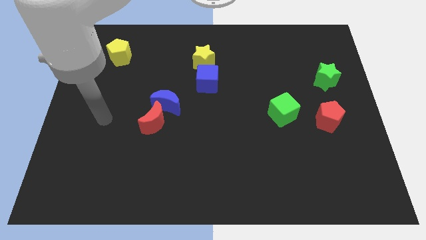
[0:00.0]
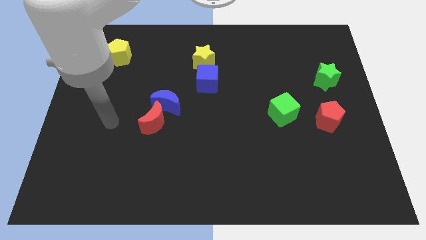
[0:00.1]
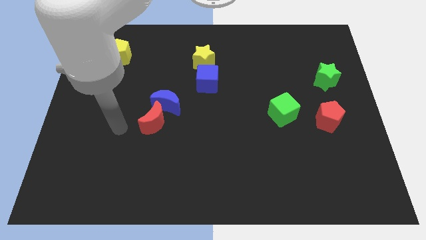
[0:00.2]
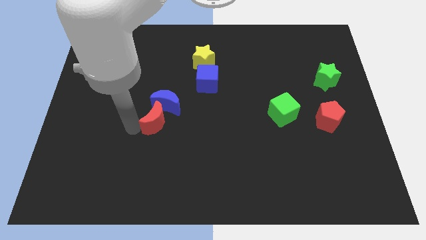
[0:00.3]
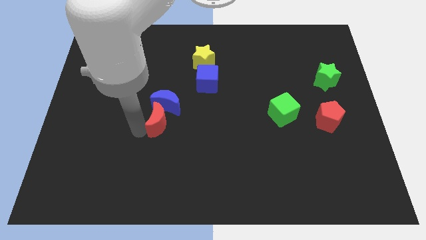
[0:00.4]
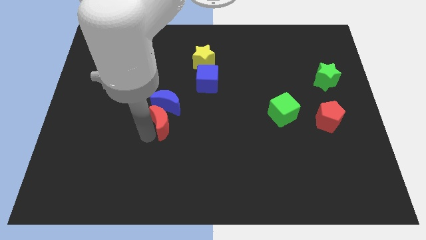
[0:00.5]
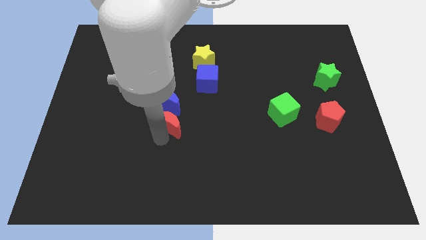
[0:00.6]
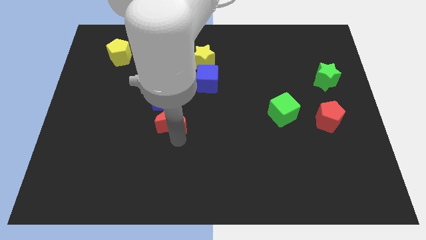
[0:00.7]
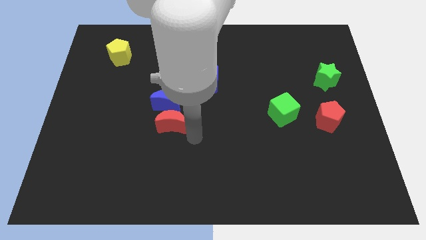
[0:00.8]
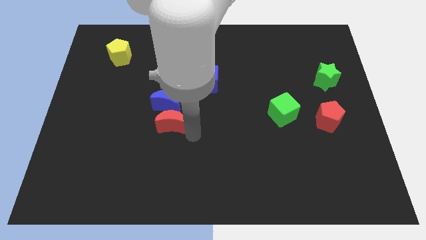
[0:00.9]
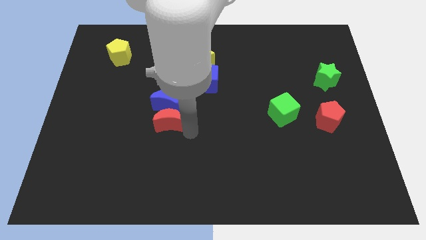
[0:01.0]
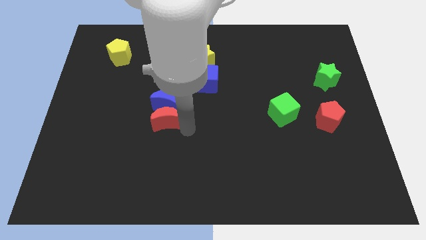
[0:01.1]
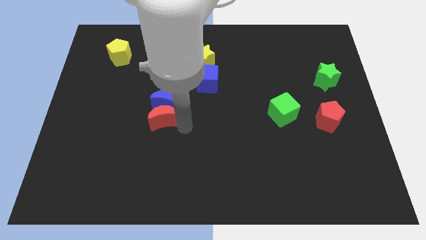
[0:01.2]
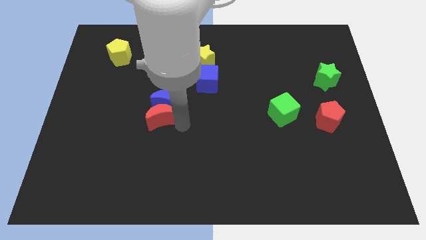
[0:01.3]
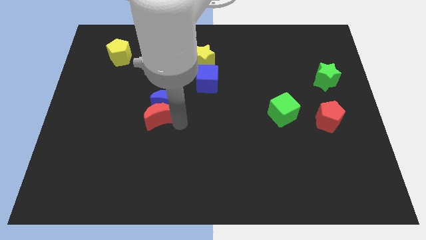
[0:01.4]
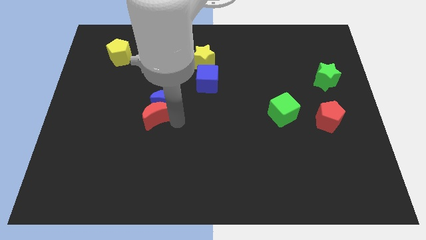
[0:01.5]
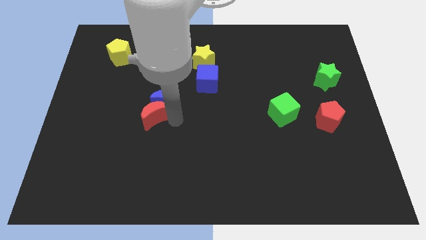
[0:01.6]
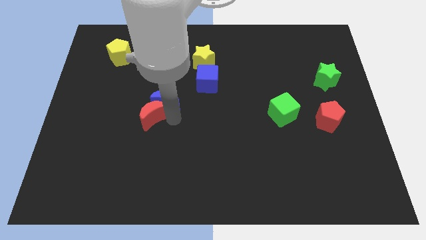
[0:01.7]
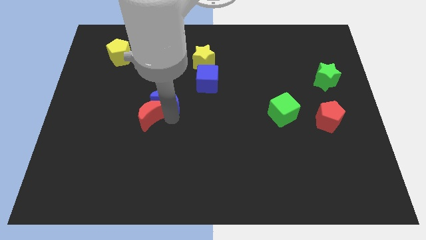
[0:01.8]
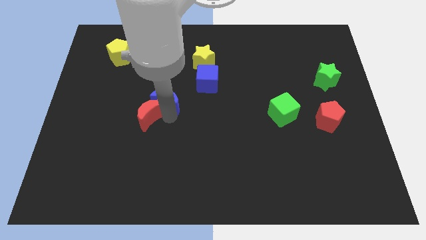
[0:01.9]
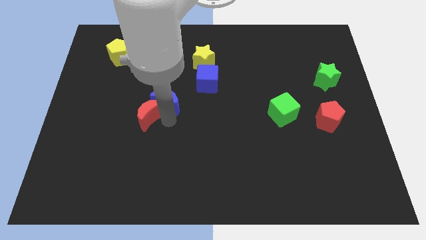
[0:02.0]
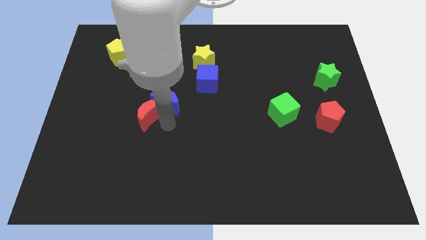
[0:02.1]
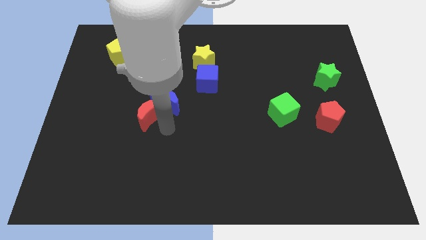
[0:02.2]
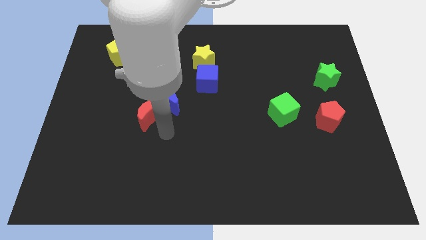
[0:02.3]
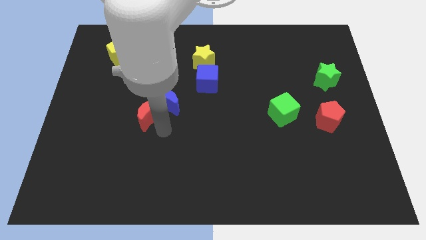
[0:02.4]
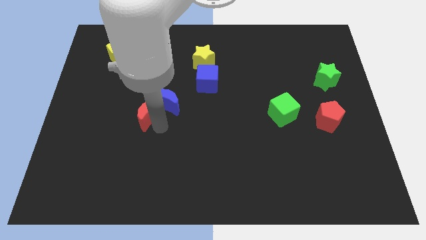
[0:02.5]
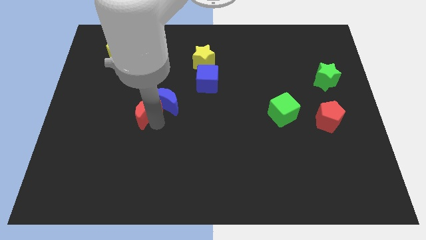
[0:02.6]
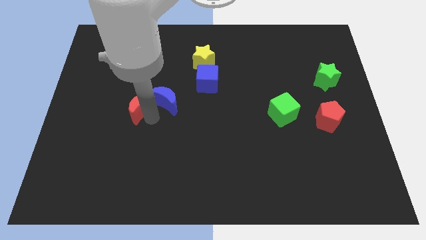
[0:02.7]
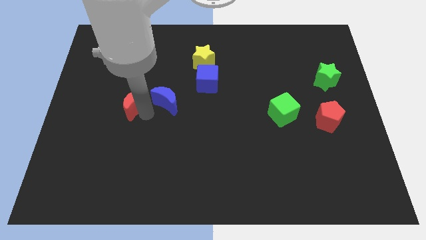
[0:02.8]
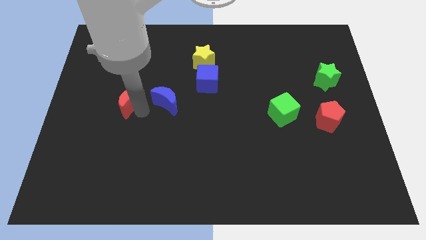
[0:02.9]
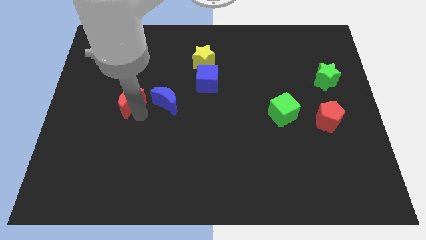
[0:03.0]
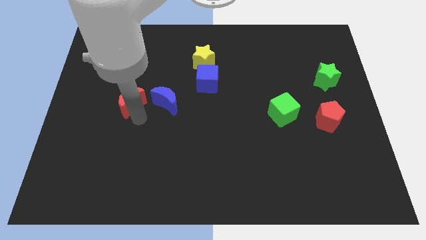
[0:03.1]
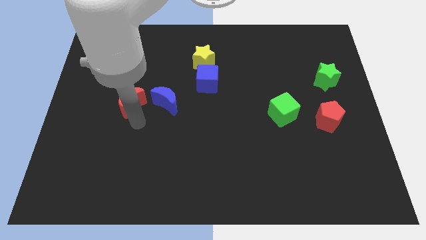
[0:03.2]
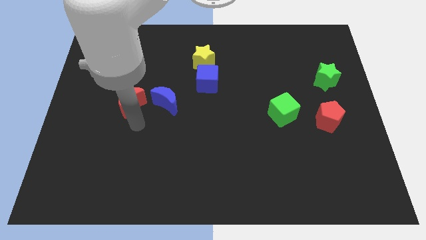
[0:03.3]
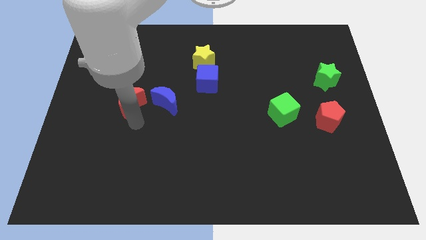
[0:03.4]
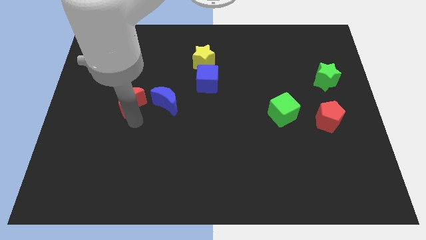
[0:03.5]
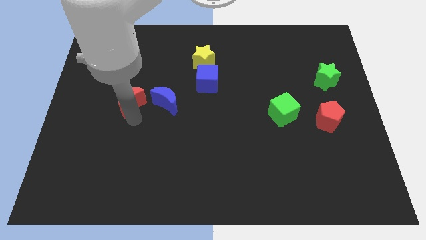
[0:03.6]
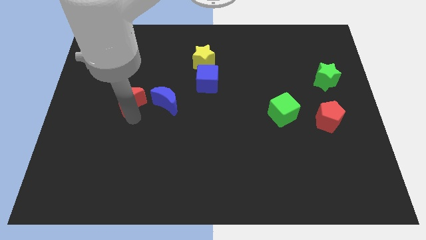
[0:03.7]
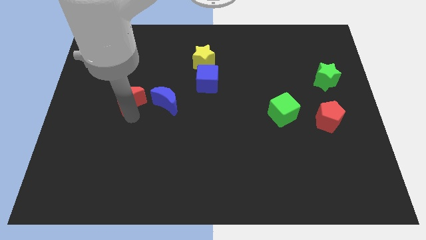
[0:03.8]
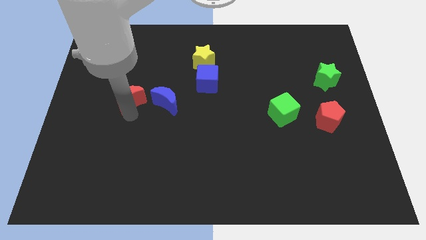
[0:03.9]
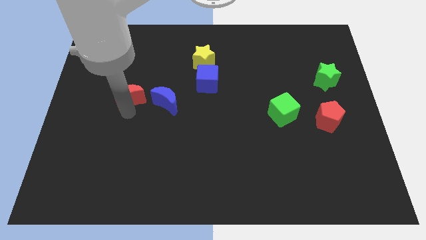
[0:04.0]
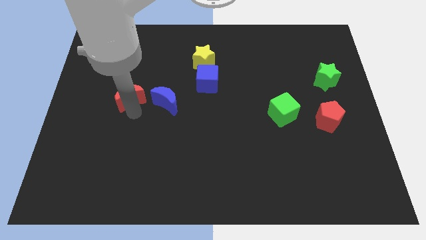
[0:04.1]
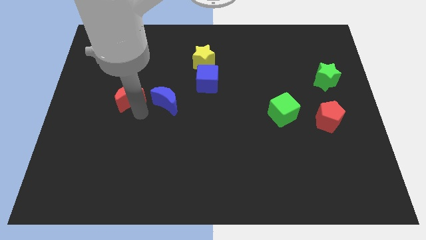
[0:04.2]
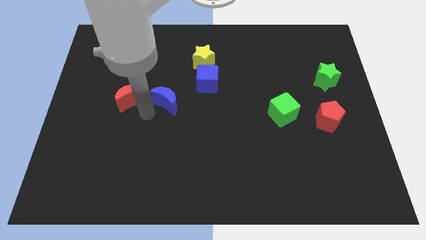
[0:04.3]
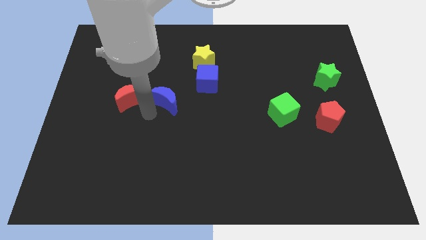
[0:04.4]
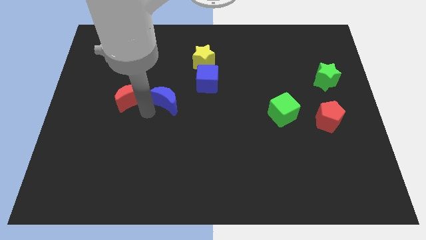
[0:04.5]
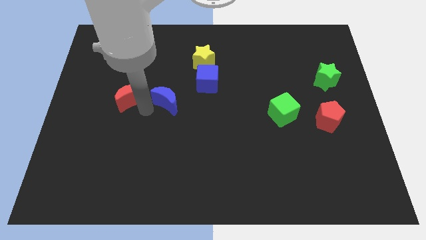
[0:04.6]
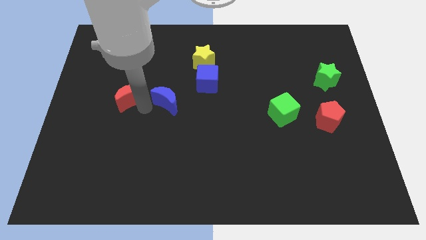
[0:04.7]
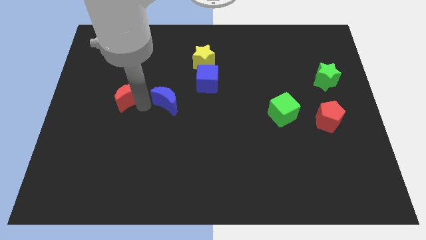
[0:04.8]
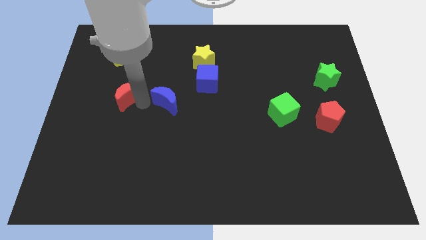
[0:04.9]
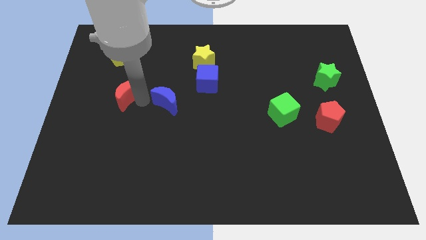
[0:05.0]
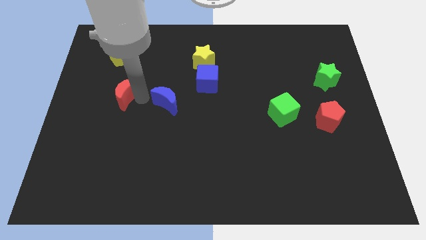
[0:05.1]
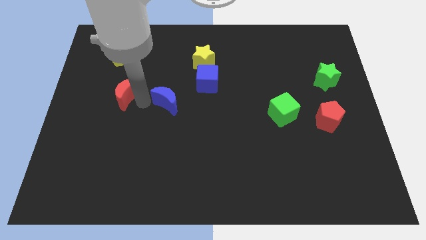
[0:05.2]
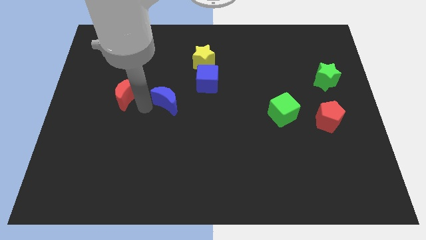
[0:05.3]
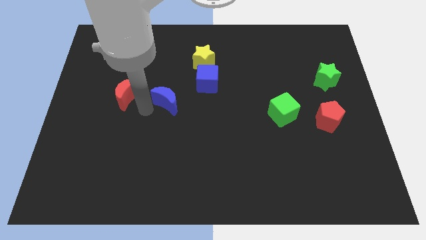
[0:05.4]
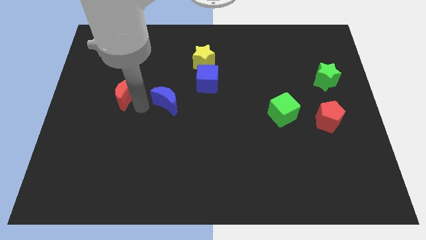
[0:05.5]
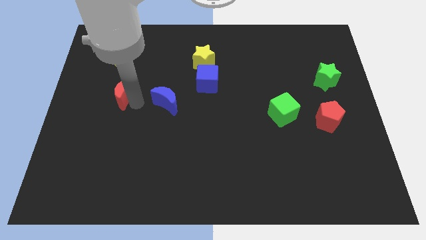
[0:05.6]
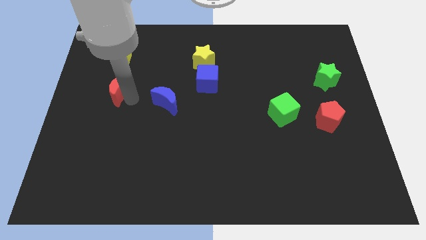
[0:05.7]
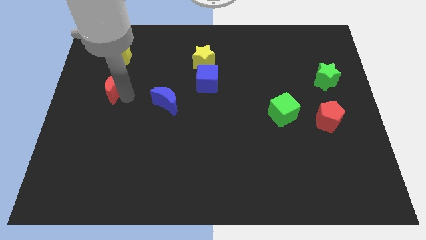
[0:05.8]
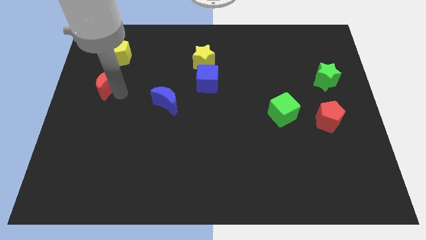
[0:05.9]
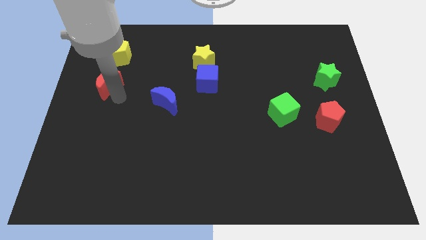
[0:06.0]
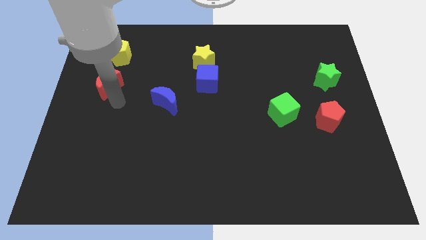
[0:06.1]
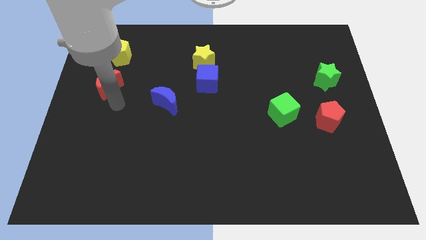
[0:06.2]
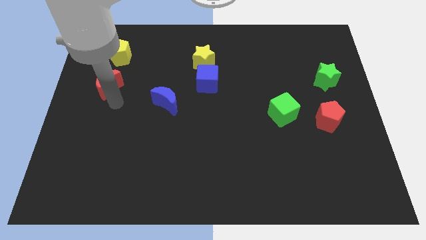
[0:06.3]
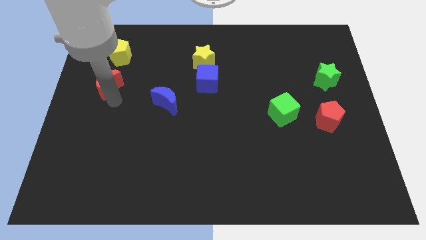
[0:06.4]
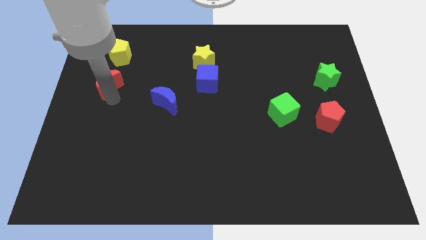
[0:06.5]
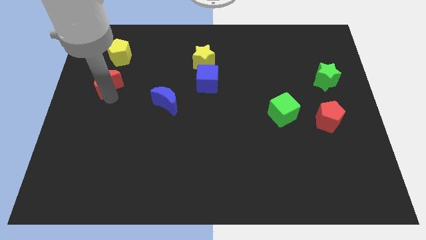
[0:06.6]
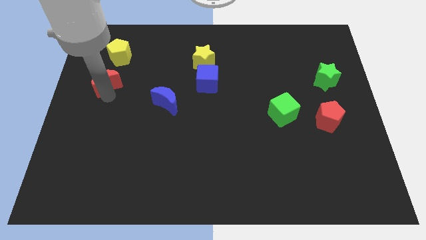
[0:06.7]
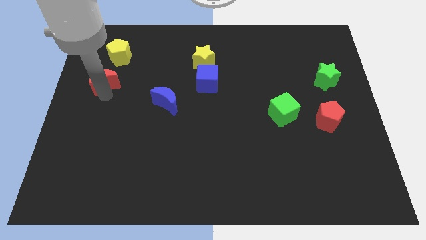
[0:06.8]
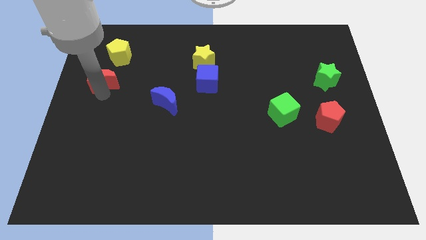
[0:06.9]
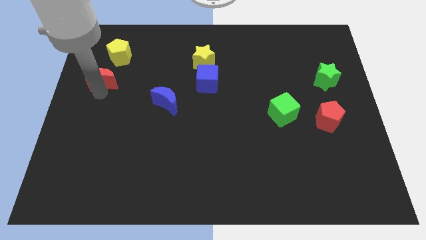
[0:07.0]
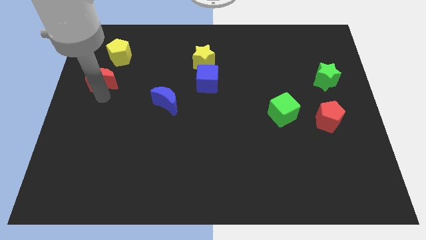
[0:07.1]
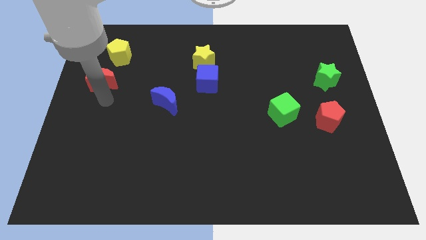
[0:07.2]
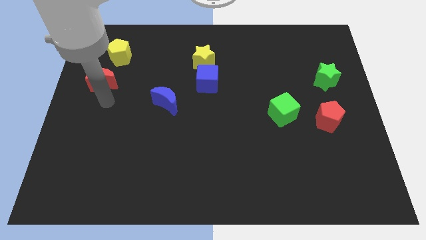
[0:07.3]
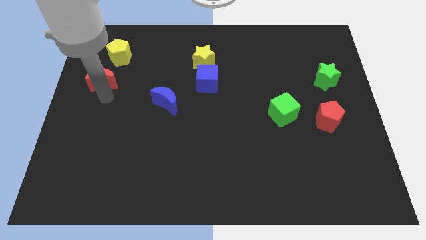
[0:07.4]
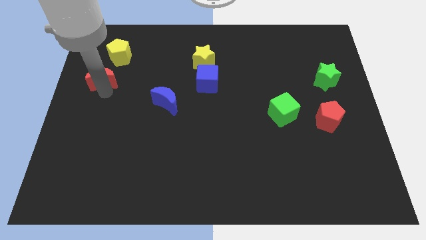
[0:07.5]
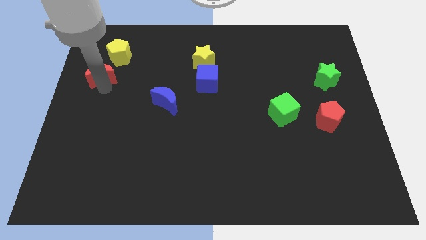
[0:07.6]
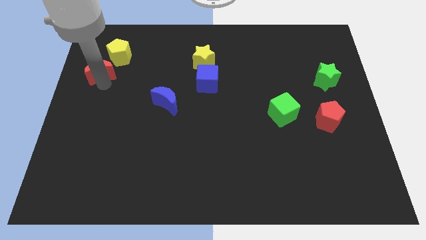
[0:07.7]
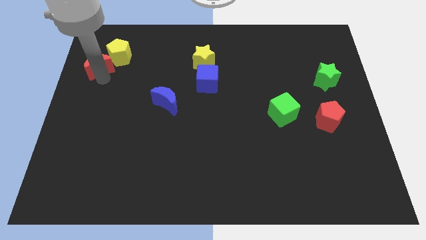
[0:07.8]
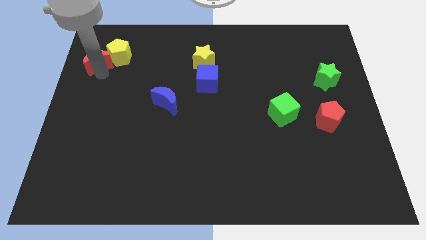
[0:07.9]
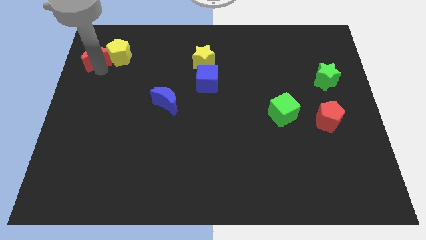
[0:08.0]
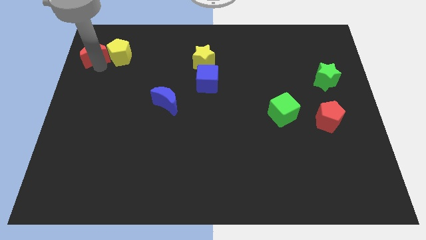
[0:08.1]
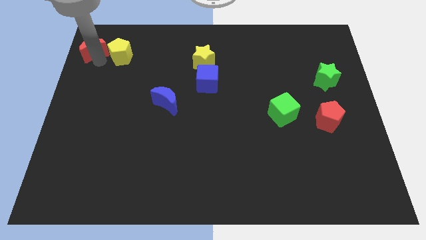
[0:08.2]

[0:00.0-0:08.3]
put the red moon to the upper left corner
